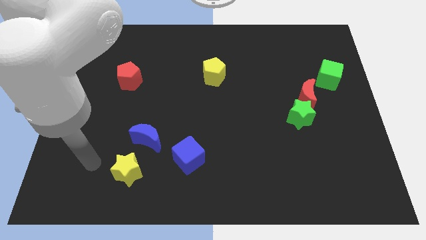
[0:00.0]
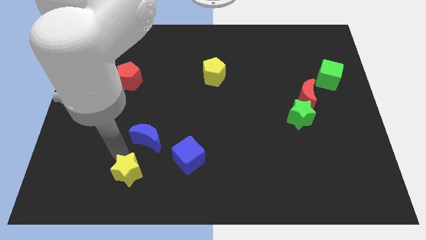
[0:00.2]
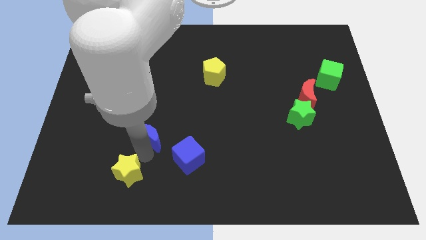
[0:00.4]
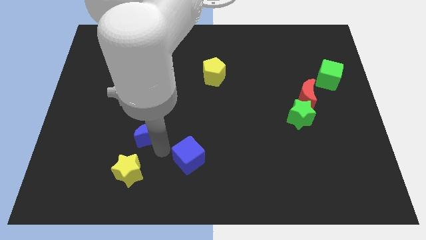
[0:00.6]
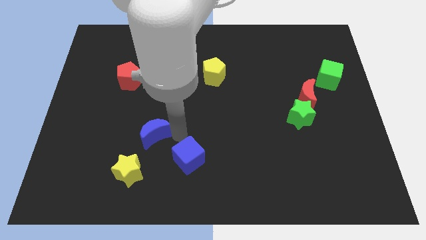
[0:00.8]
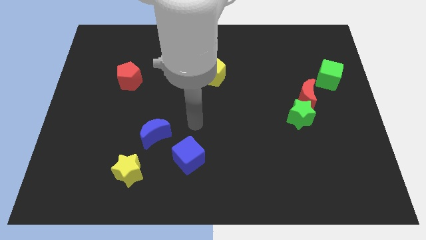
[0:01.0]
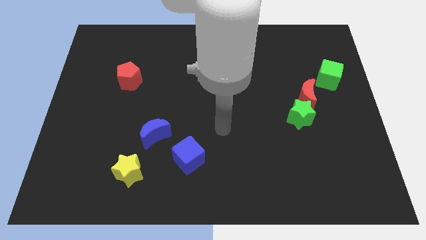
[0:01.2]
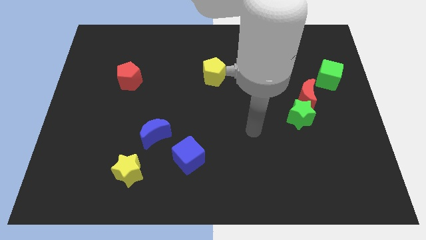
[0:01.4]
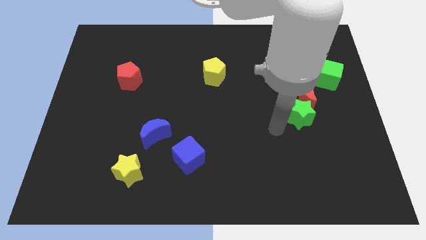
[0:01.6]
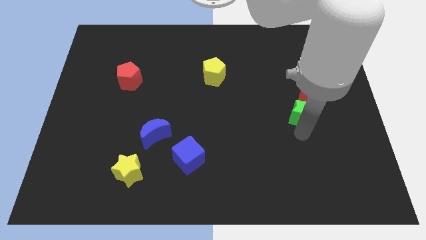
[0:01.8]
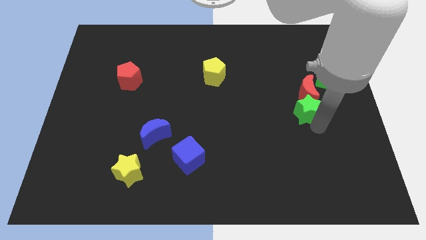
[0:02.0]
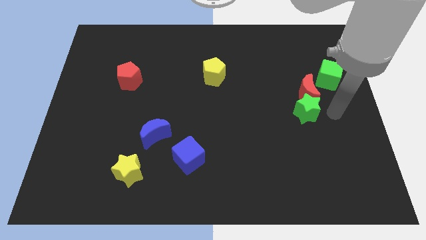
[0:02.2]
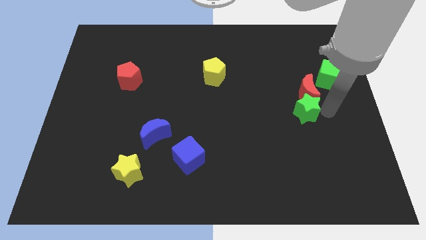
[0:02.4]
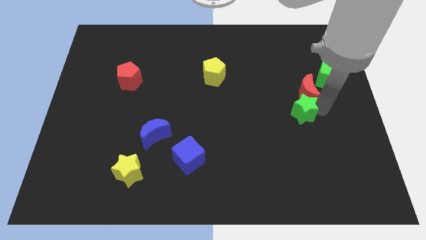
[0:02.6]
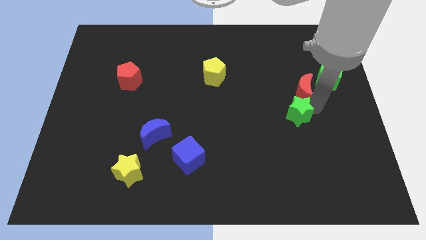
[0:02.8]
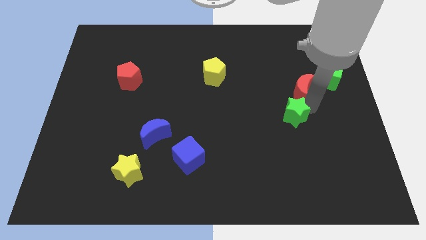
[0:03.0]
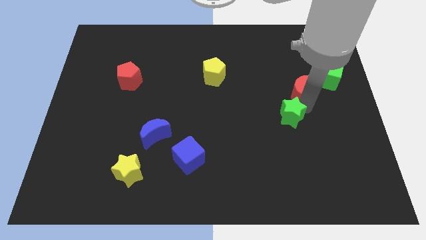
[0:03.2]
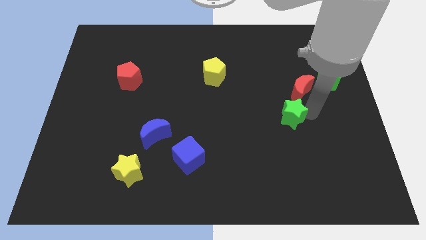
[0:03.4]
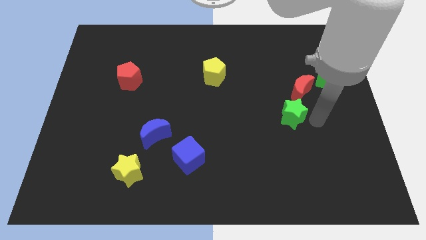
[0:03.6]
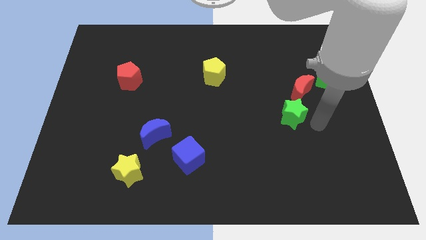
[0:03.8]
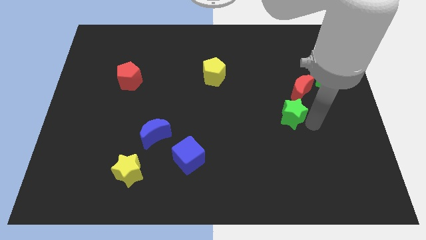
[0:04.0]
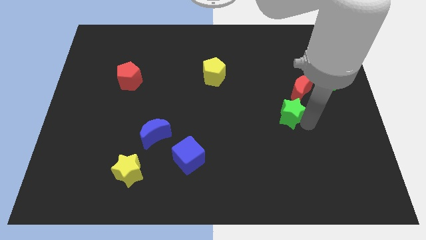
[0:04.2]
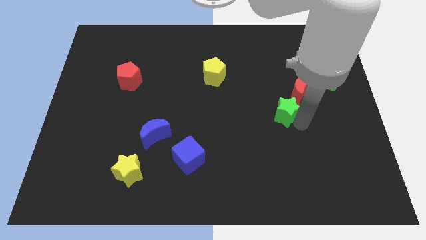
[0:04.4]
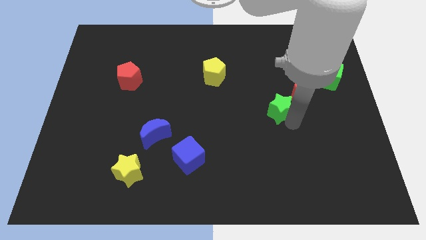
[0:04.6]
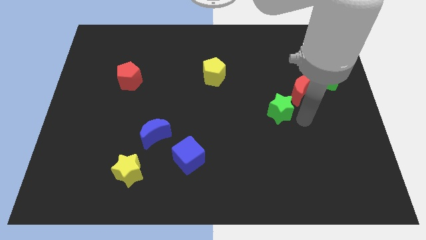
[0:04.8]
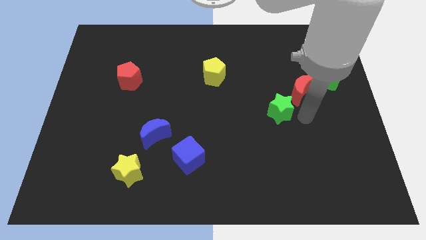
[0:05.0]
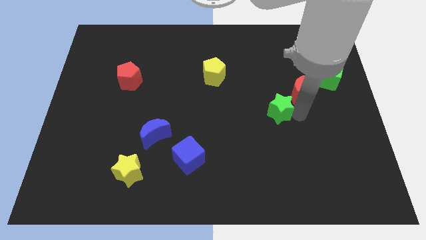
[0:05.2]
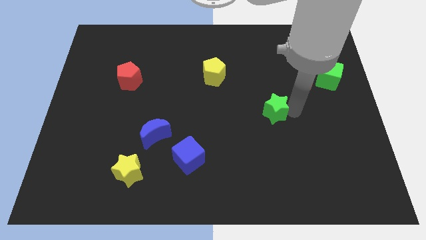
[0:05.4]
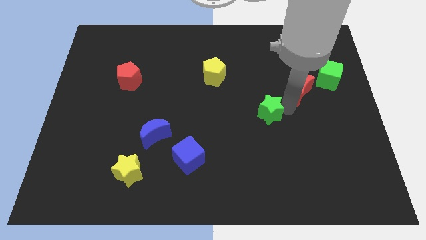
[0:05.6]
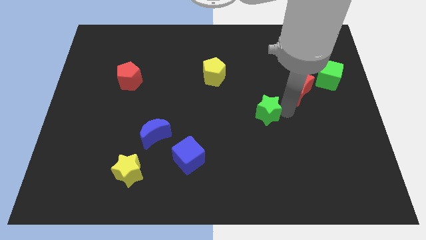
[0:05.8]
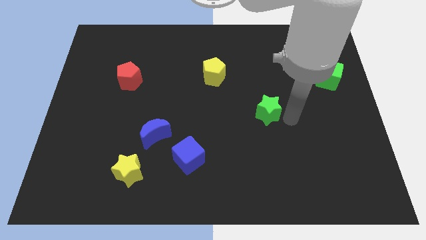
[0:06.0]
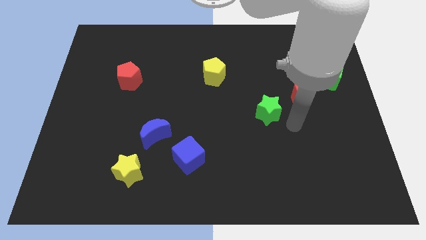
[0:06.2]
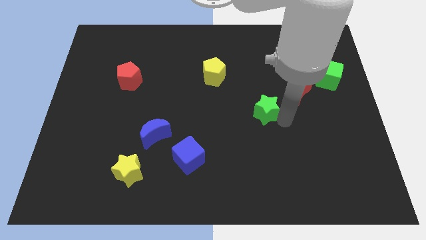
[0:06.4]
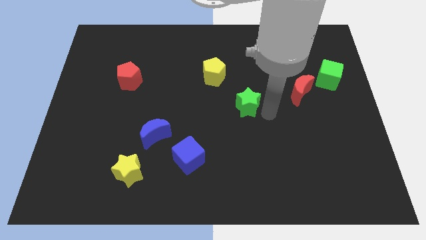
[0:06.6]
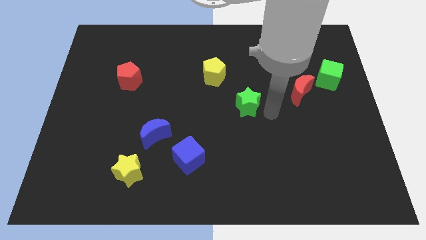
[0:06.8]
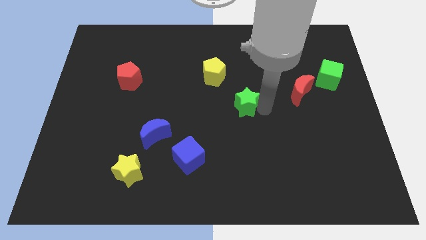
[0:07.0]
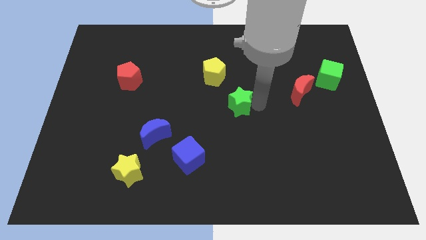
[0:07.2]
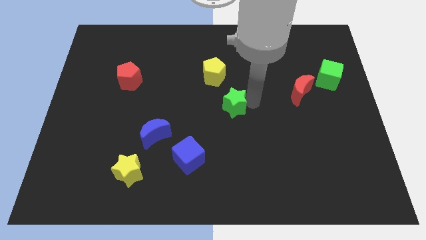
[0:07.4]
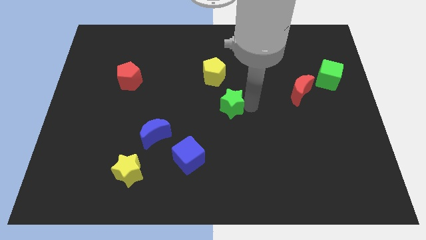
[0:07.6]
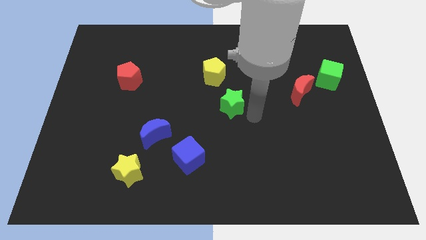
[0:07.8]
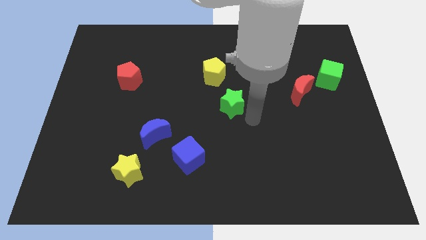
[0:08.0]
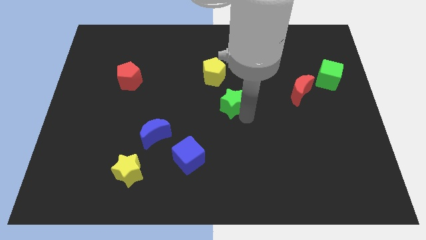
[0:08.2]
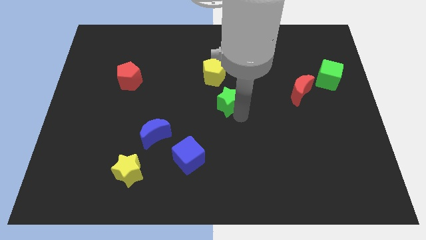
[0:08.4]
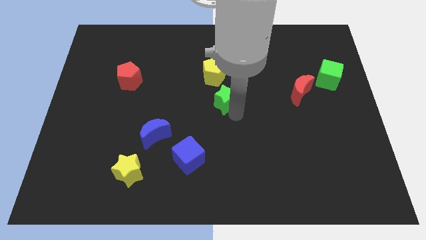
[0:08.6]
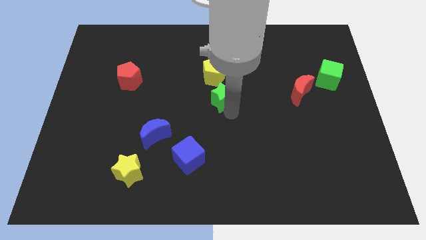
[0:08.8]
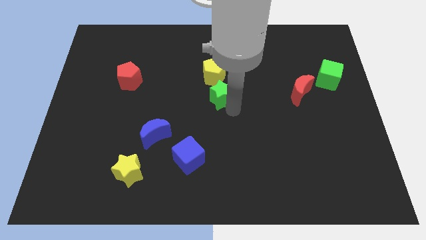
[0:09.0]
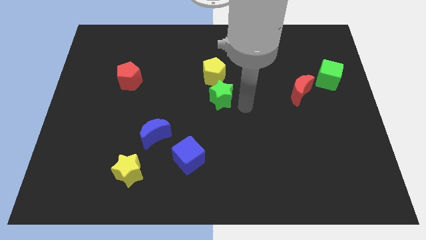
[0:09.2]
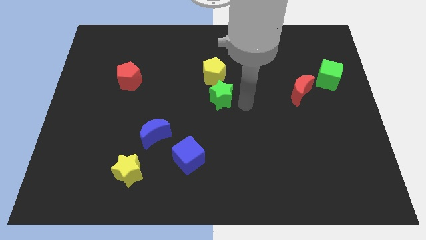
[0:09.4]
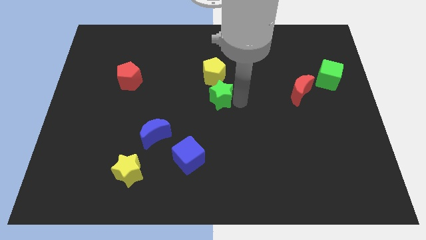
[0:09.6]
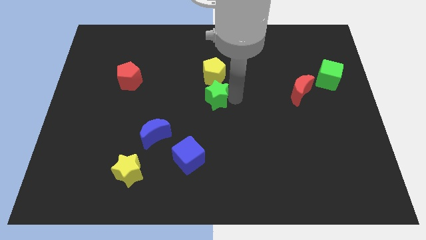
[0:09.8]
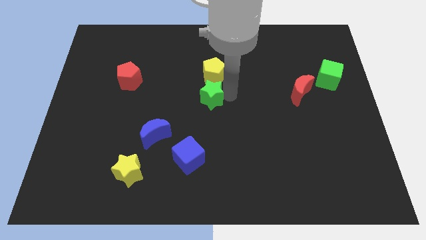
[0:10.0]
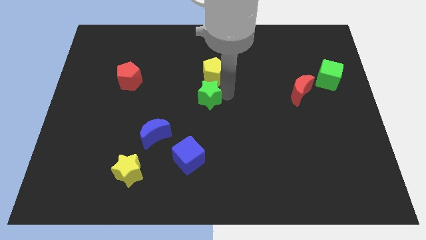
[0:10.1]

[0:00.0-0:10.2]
push the green star to the bottom left of the yellow pentagon

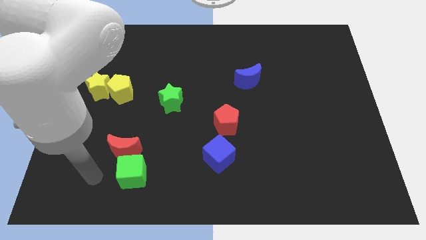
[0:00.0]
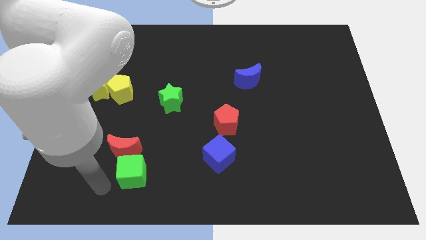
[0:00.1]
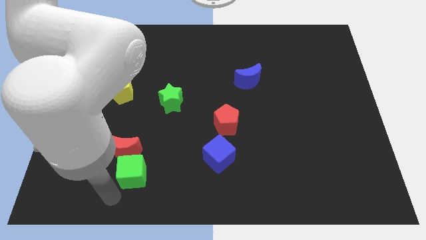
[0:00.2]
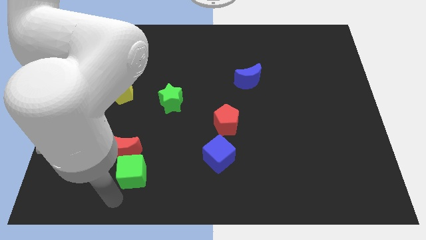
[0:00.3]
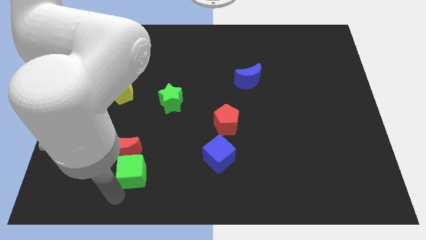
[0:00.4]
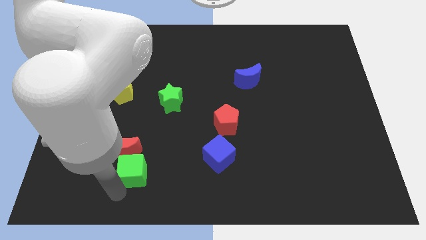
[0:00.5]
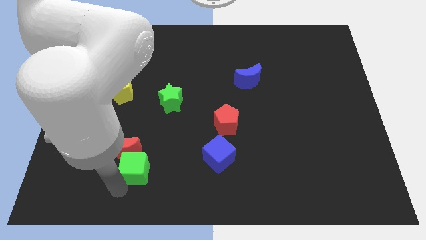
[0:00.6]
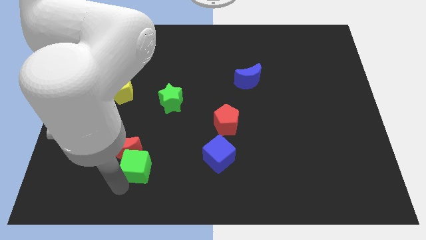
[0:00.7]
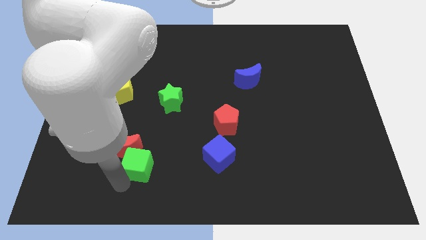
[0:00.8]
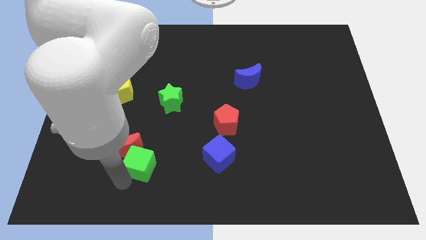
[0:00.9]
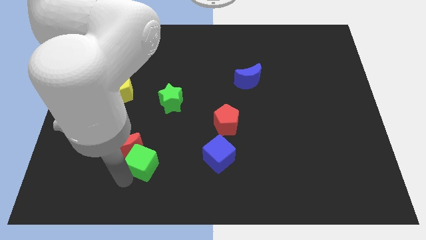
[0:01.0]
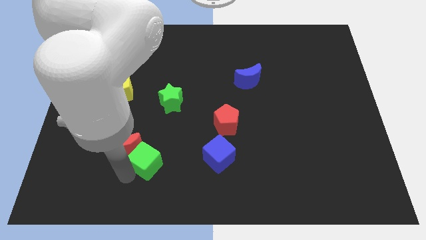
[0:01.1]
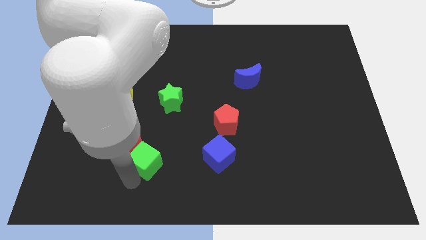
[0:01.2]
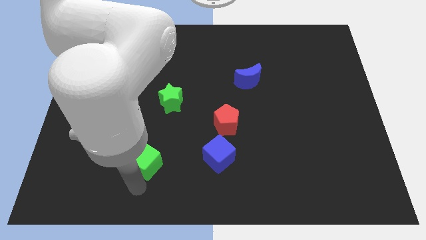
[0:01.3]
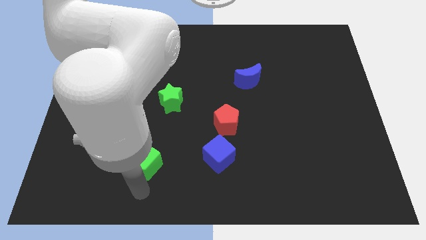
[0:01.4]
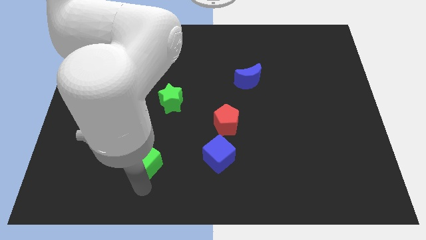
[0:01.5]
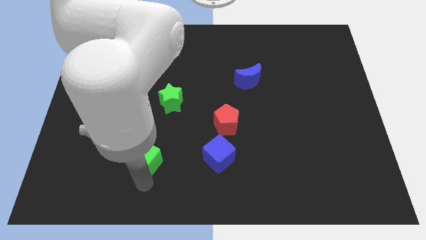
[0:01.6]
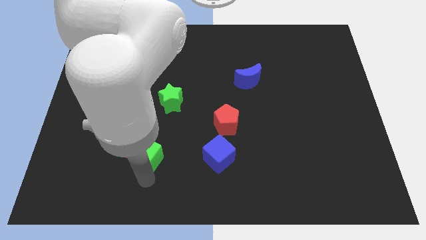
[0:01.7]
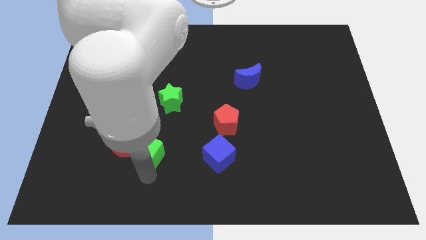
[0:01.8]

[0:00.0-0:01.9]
put the green cube diagonally up and to the right of the red moon

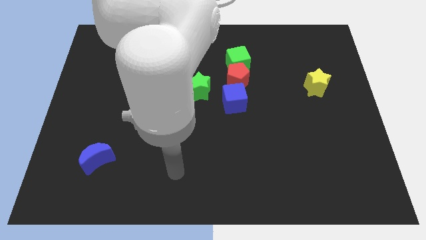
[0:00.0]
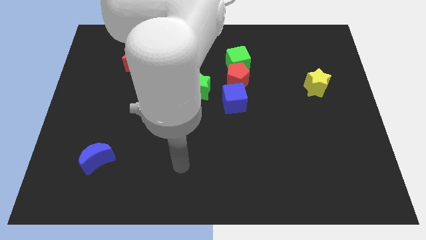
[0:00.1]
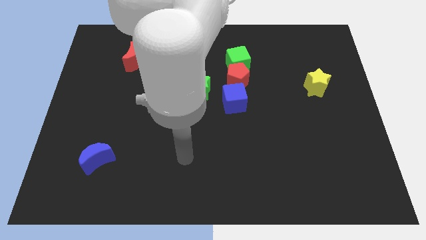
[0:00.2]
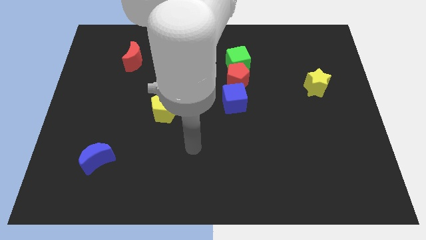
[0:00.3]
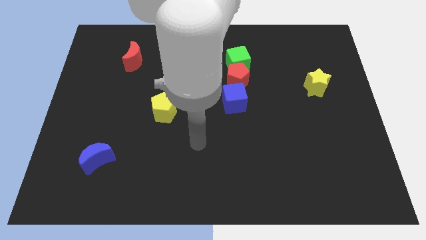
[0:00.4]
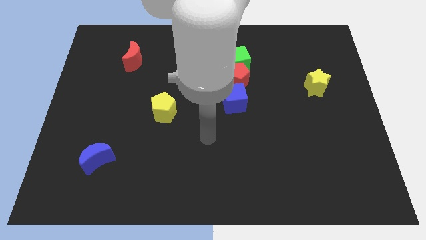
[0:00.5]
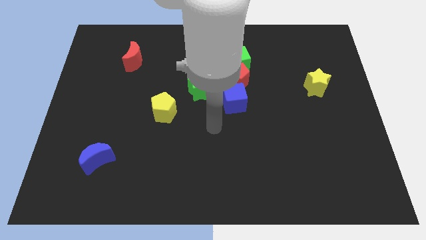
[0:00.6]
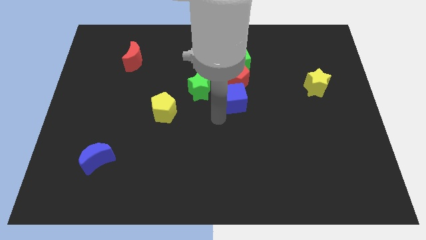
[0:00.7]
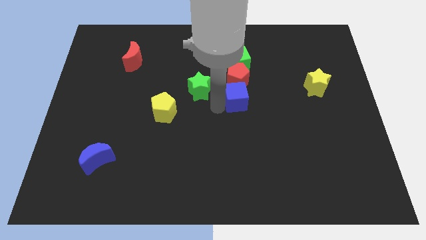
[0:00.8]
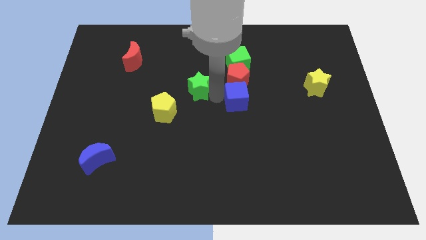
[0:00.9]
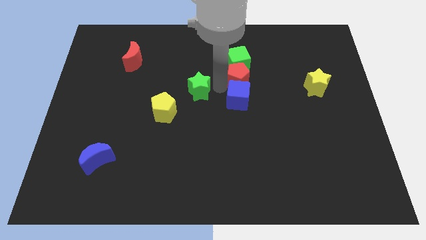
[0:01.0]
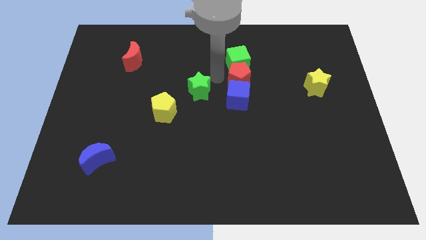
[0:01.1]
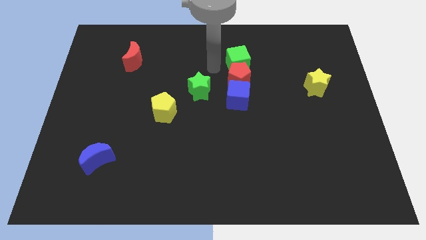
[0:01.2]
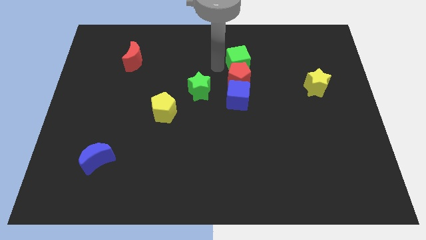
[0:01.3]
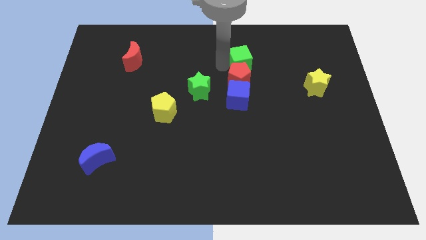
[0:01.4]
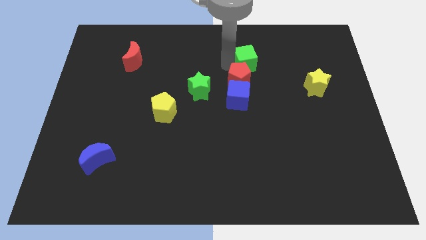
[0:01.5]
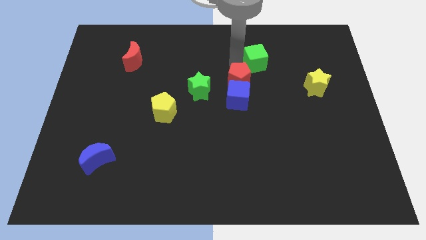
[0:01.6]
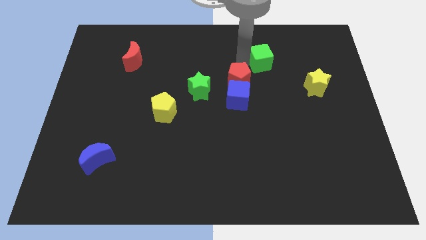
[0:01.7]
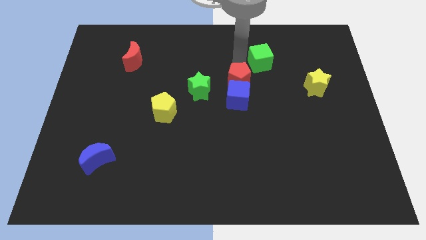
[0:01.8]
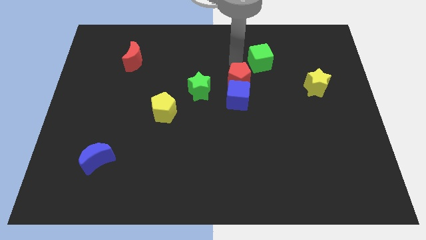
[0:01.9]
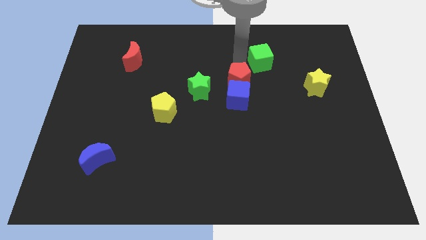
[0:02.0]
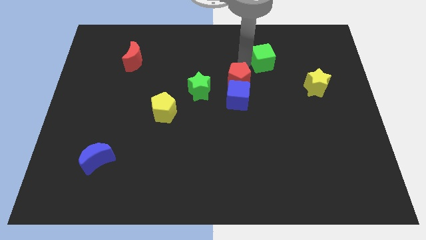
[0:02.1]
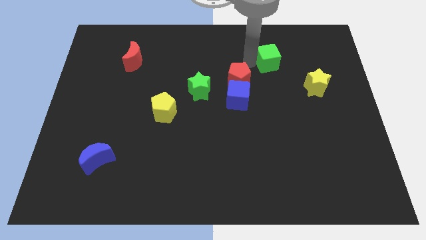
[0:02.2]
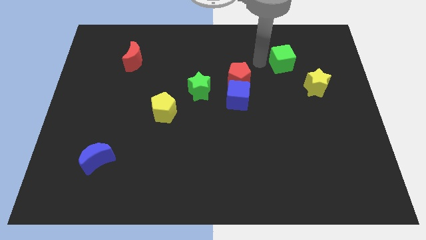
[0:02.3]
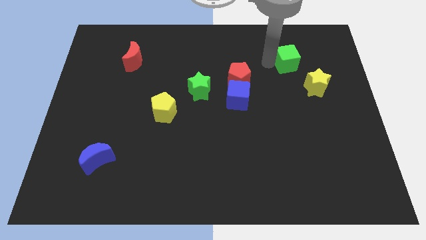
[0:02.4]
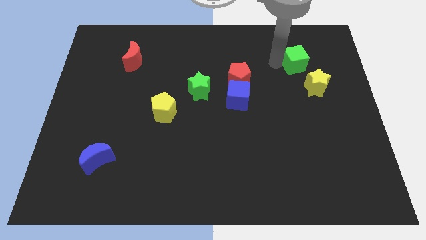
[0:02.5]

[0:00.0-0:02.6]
move the green cube above the yellow star
